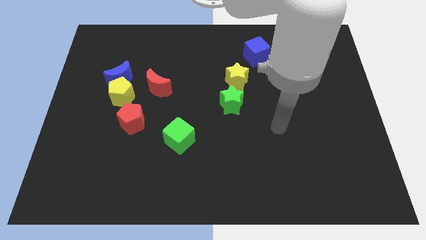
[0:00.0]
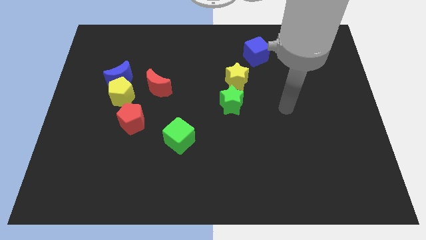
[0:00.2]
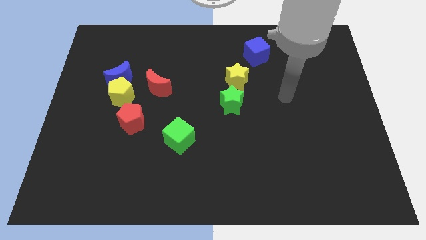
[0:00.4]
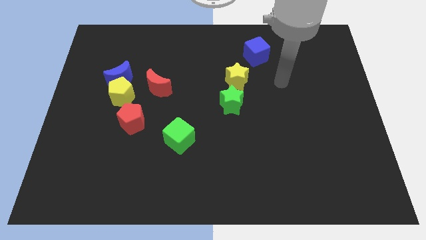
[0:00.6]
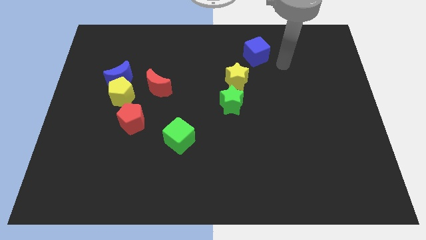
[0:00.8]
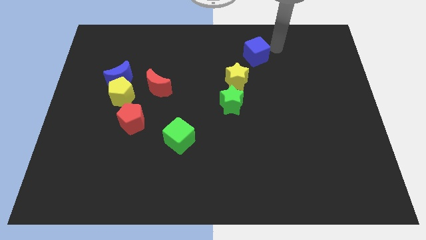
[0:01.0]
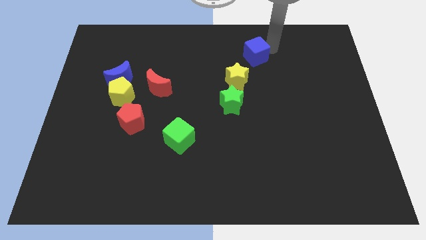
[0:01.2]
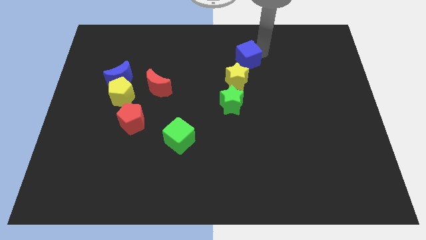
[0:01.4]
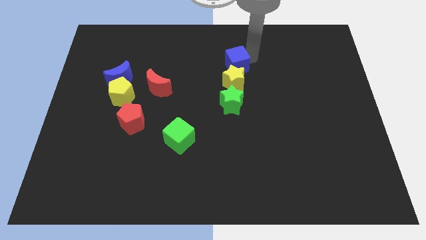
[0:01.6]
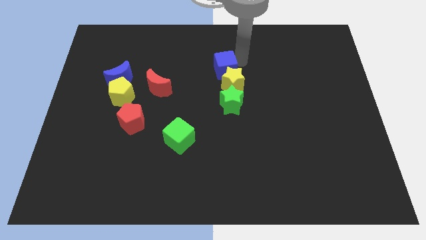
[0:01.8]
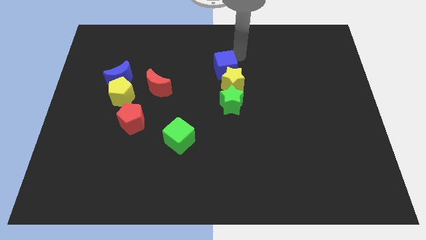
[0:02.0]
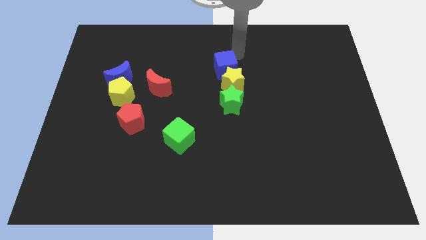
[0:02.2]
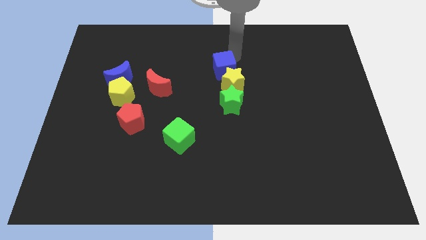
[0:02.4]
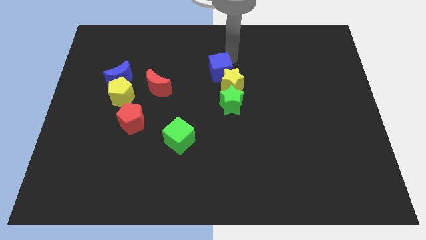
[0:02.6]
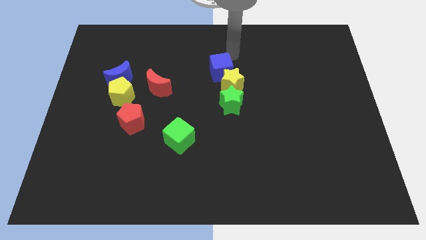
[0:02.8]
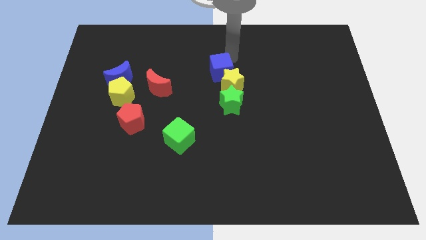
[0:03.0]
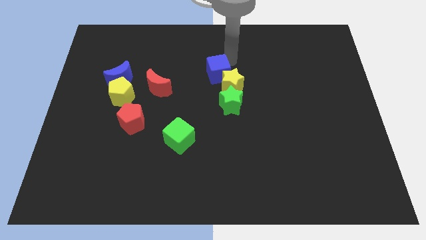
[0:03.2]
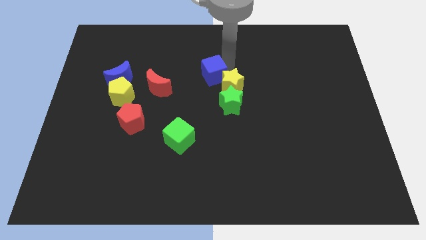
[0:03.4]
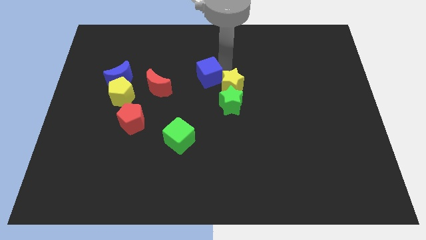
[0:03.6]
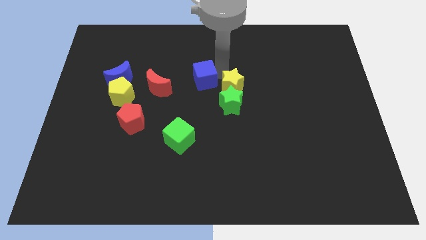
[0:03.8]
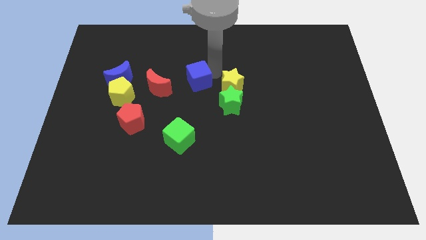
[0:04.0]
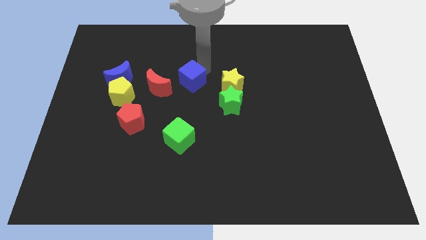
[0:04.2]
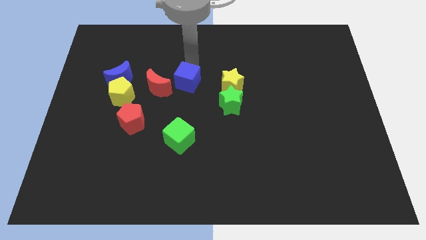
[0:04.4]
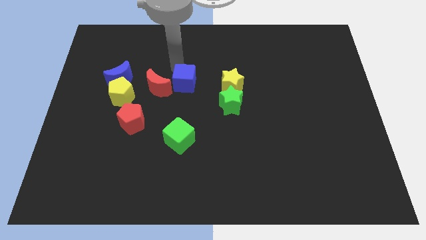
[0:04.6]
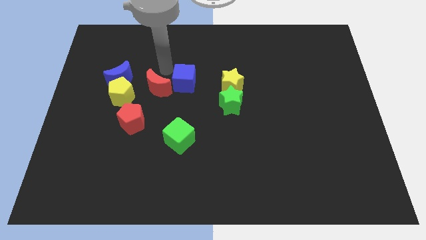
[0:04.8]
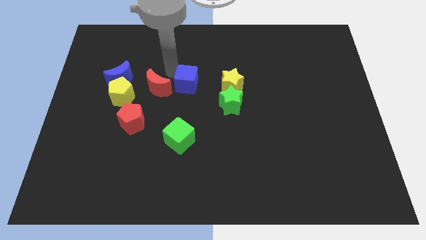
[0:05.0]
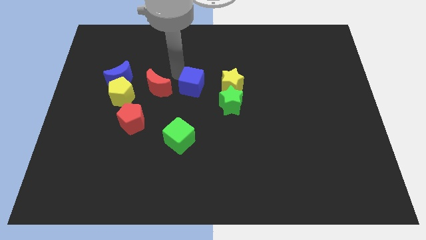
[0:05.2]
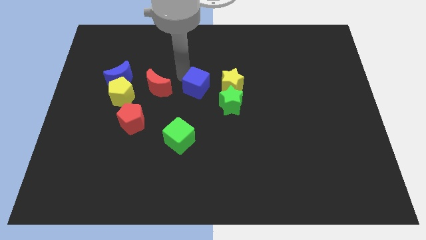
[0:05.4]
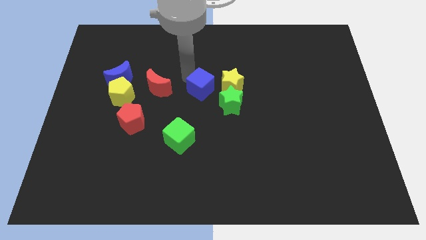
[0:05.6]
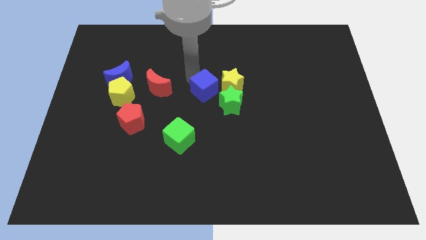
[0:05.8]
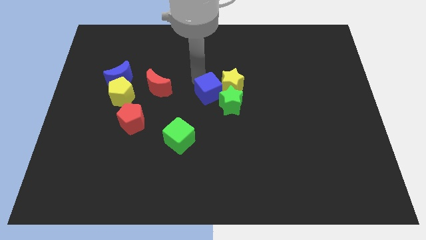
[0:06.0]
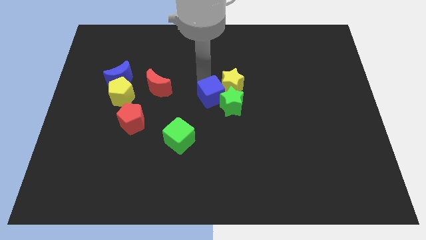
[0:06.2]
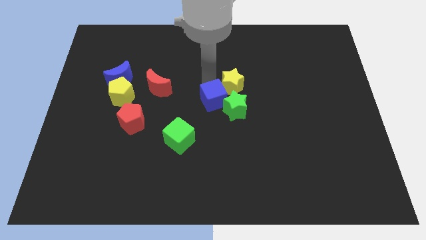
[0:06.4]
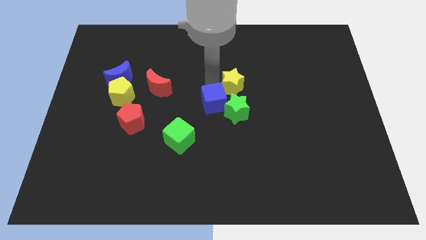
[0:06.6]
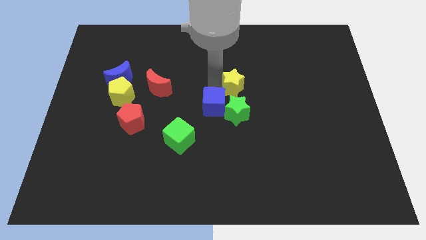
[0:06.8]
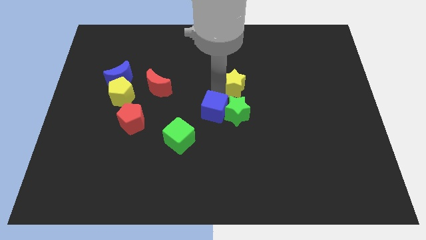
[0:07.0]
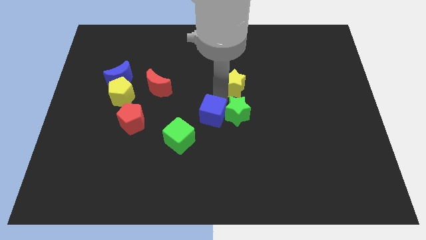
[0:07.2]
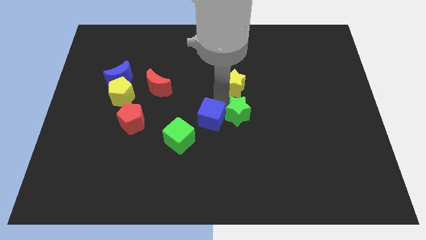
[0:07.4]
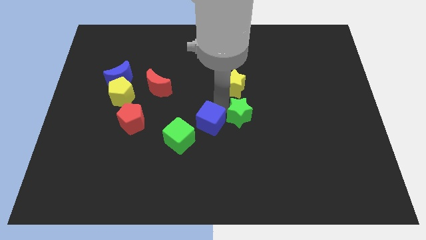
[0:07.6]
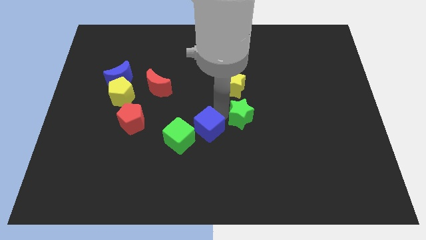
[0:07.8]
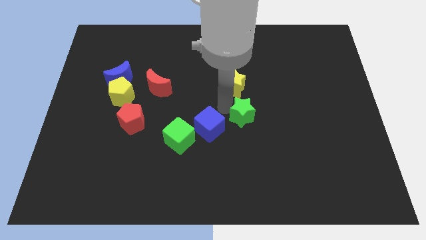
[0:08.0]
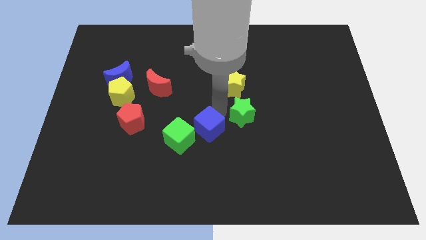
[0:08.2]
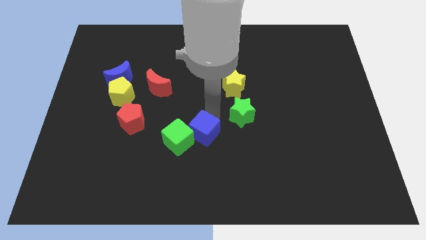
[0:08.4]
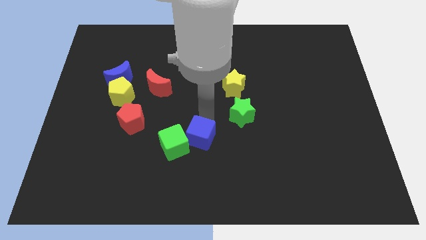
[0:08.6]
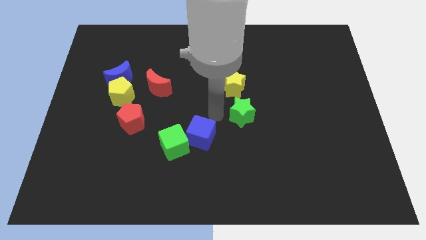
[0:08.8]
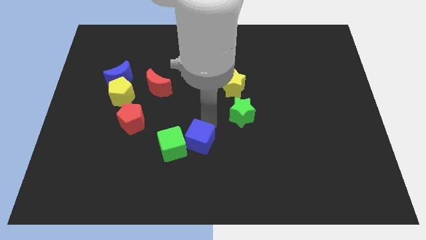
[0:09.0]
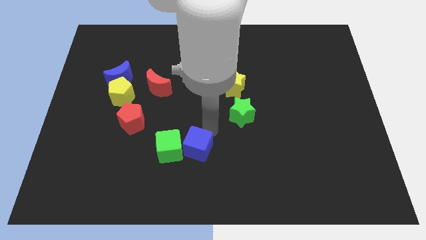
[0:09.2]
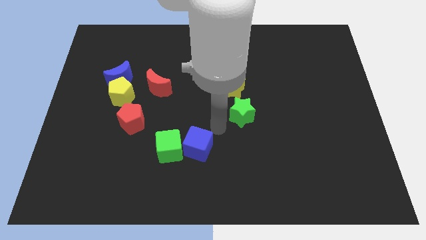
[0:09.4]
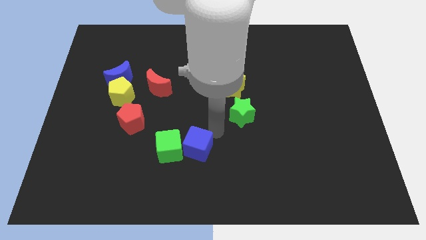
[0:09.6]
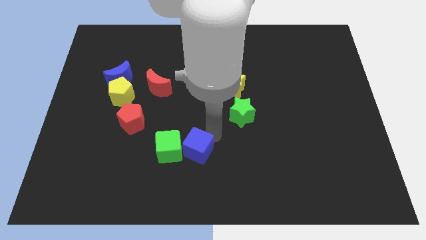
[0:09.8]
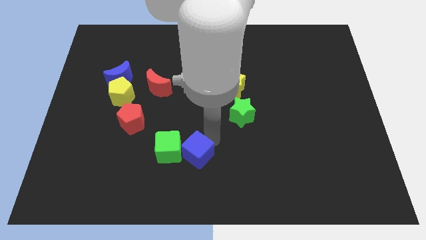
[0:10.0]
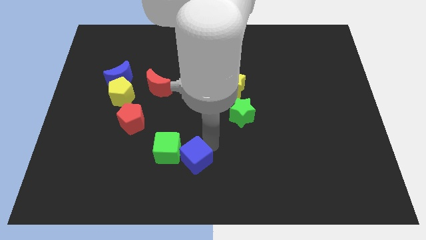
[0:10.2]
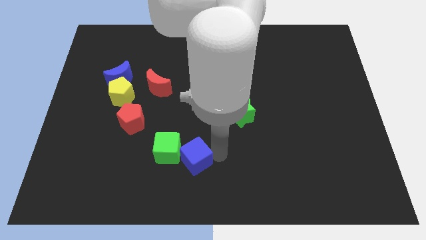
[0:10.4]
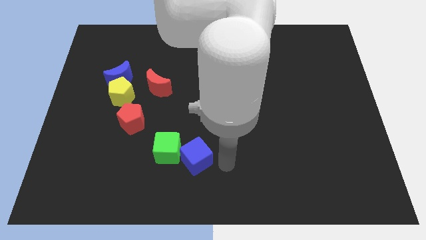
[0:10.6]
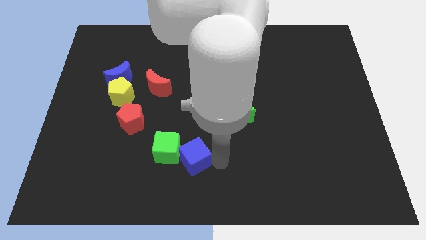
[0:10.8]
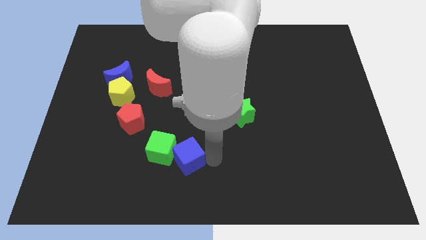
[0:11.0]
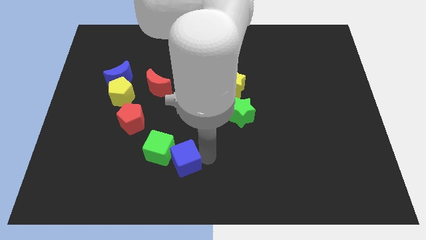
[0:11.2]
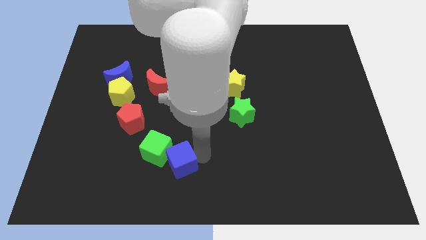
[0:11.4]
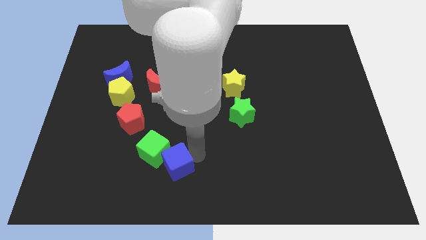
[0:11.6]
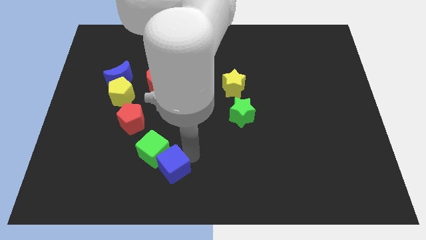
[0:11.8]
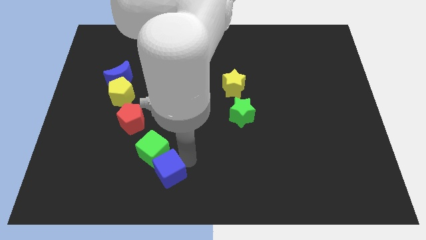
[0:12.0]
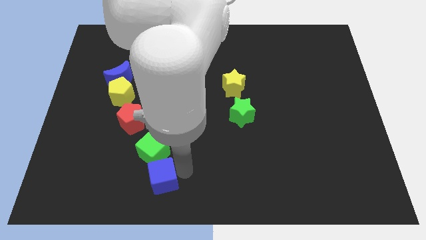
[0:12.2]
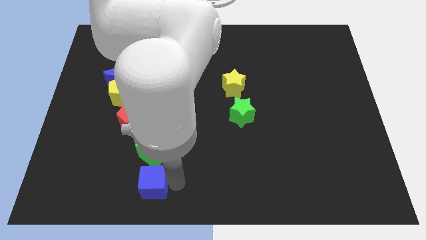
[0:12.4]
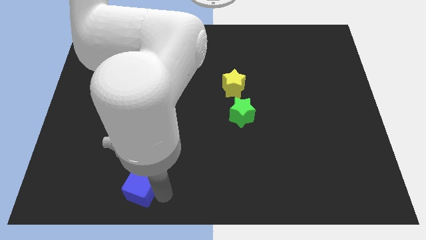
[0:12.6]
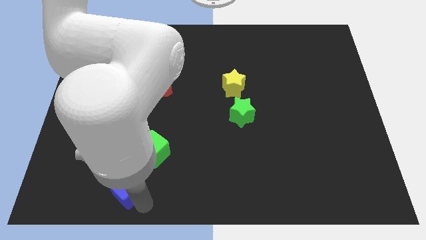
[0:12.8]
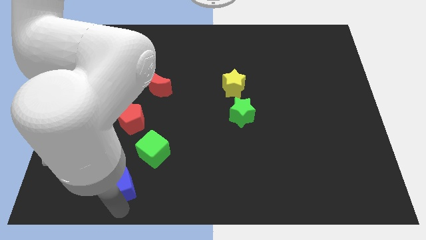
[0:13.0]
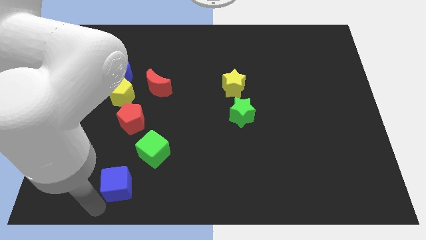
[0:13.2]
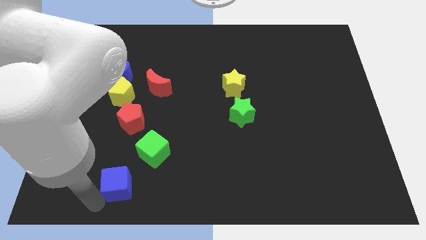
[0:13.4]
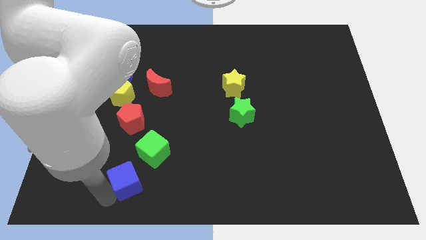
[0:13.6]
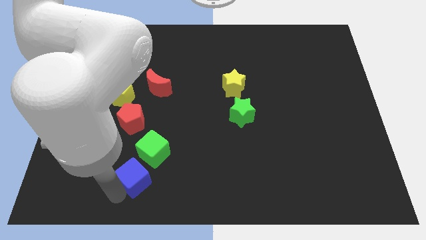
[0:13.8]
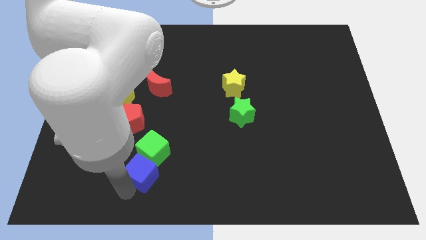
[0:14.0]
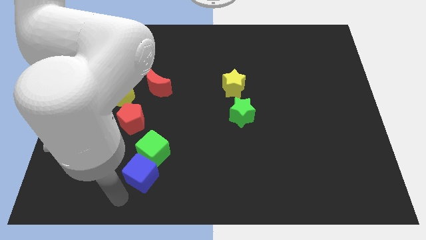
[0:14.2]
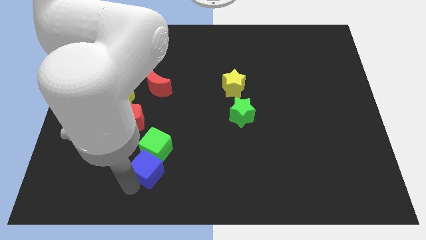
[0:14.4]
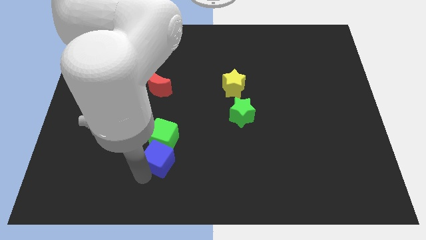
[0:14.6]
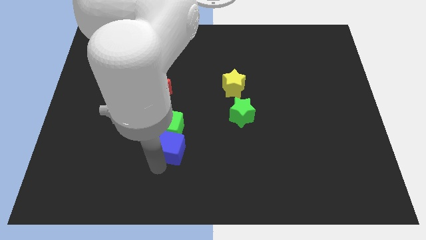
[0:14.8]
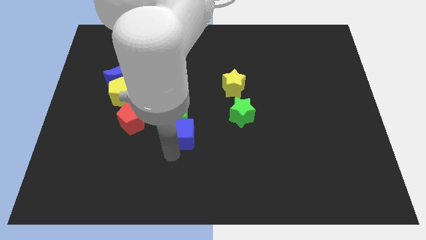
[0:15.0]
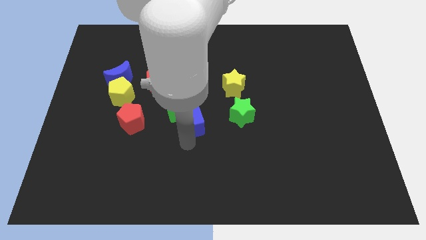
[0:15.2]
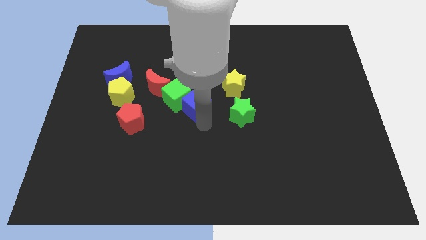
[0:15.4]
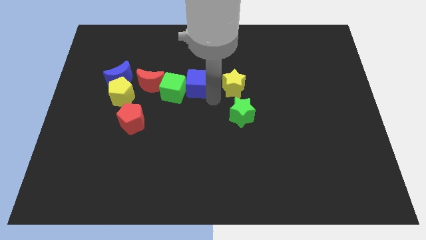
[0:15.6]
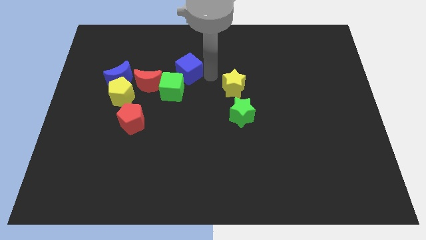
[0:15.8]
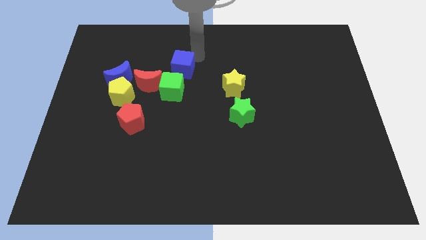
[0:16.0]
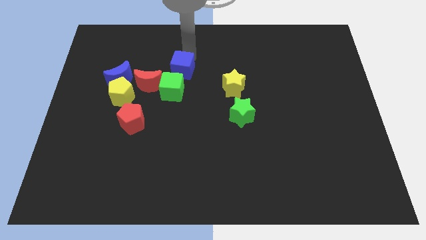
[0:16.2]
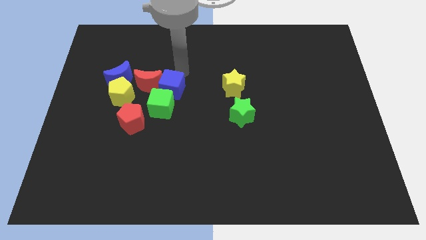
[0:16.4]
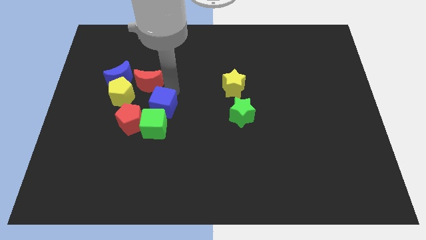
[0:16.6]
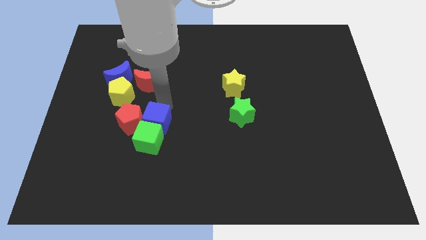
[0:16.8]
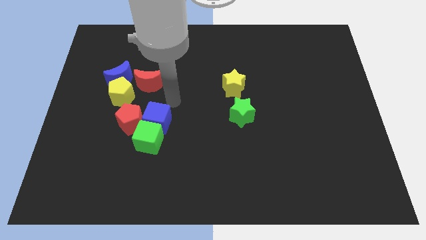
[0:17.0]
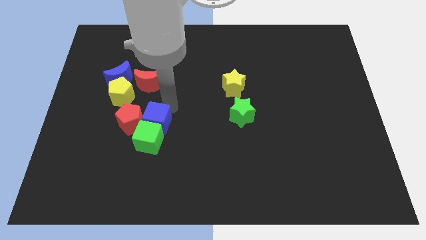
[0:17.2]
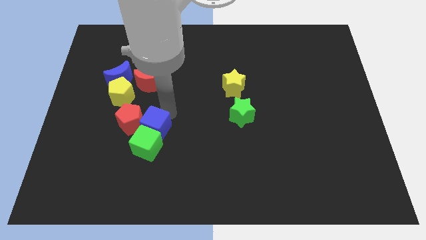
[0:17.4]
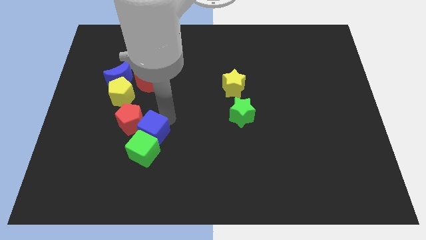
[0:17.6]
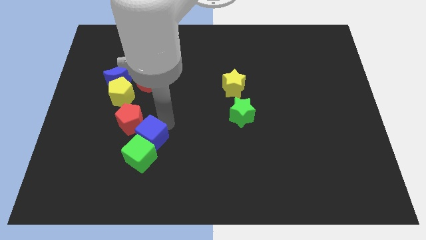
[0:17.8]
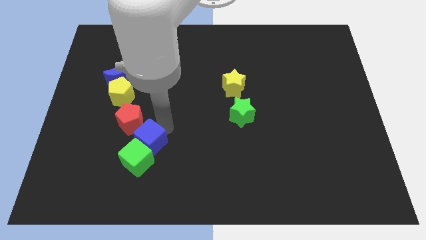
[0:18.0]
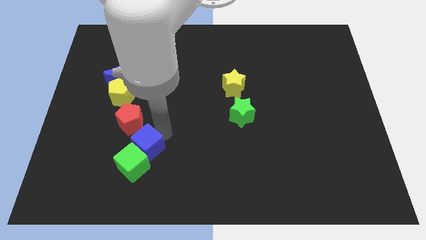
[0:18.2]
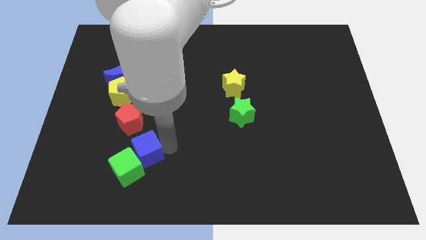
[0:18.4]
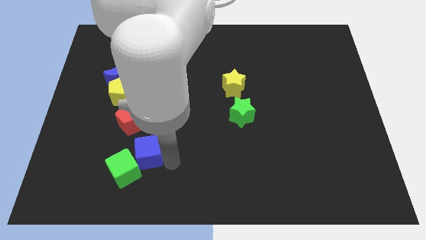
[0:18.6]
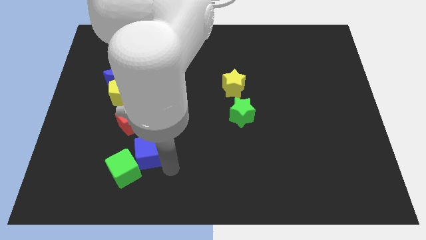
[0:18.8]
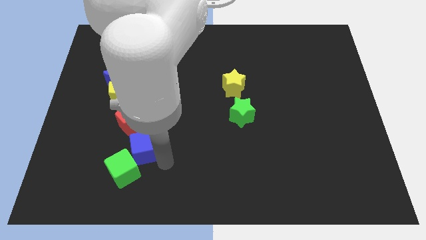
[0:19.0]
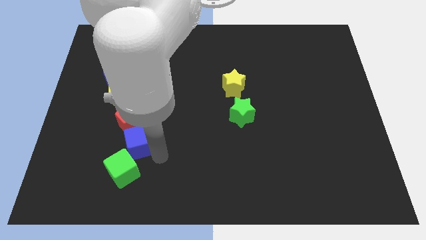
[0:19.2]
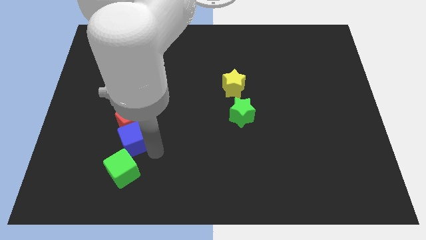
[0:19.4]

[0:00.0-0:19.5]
put the blue cube below the yellow pentagon
